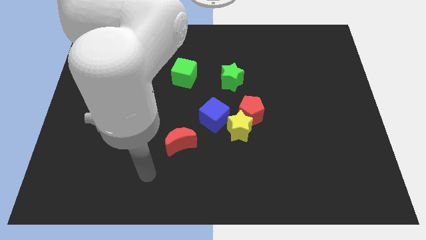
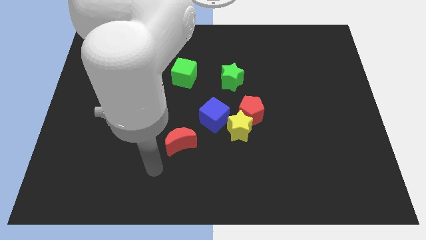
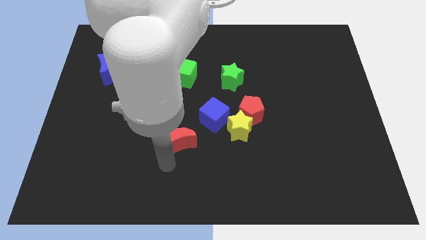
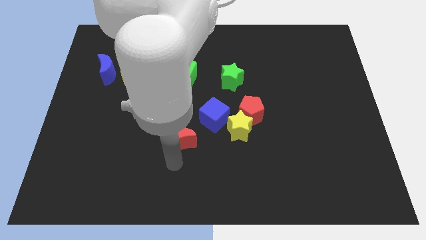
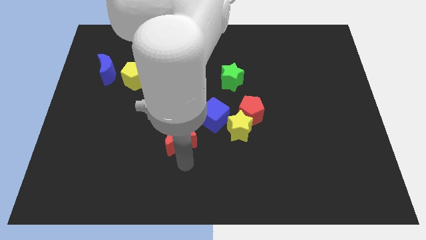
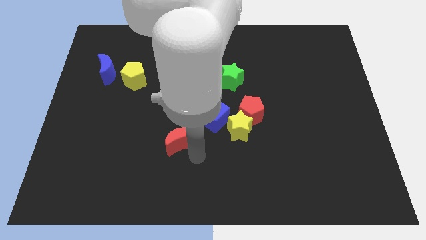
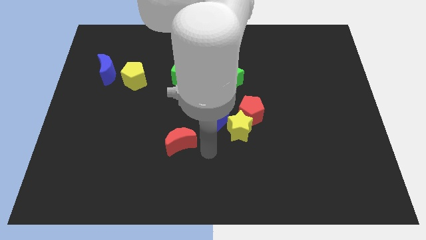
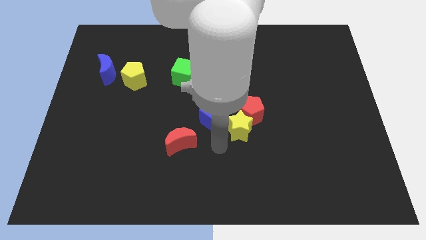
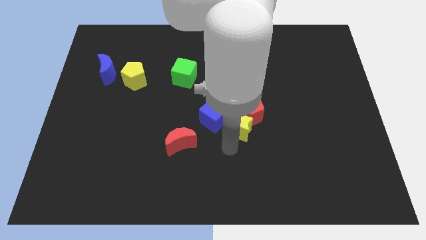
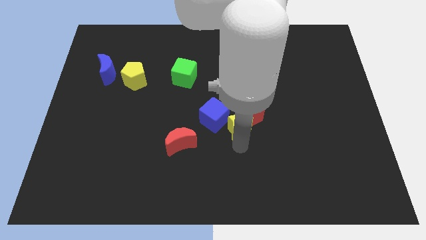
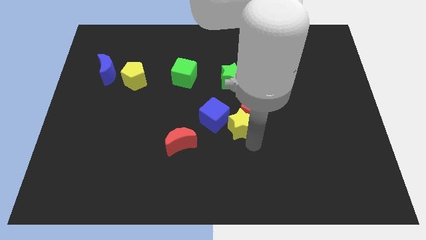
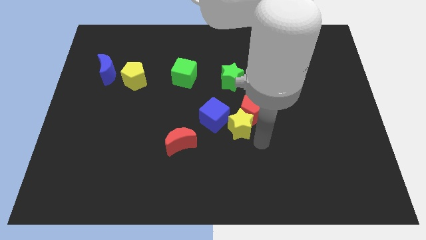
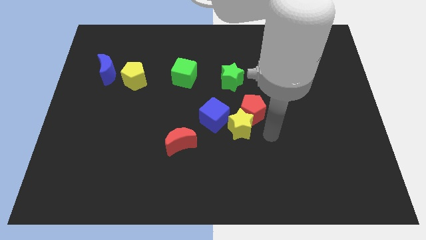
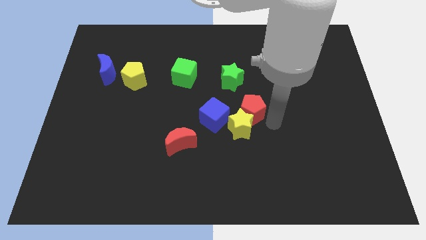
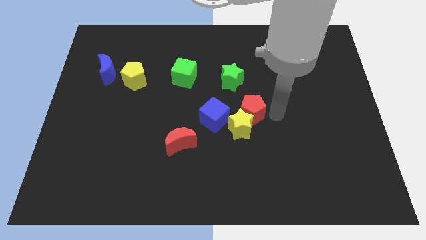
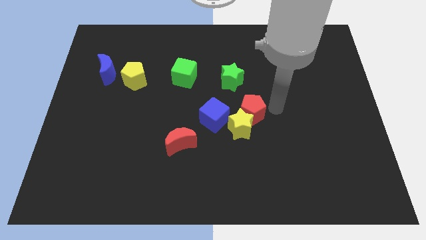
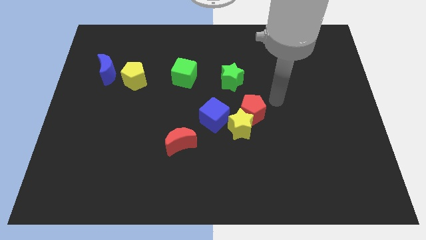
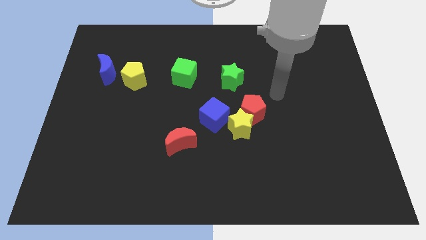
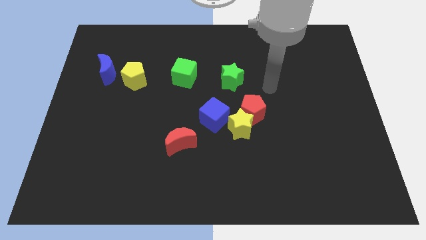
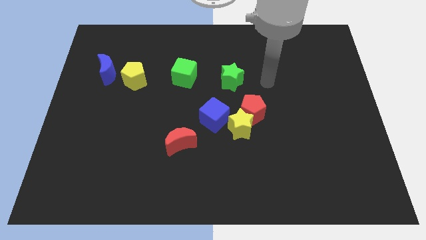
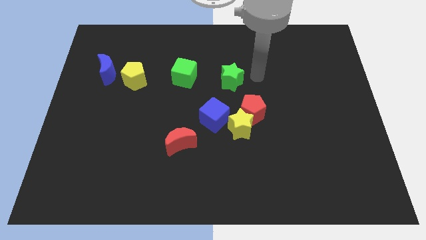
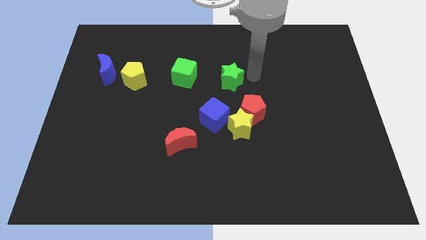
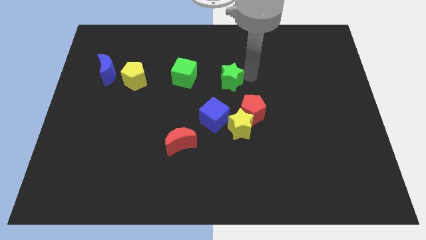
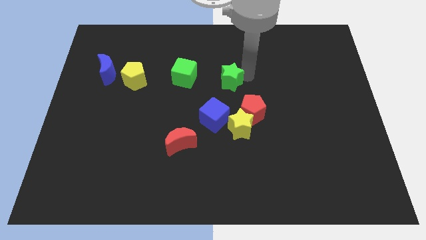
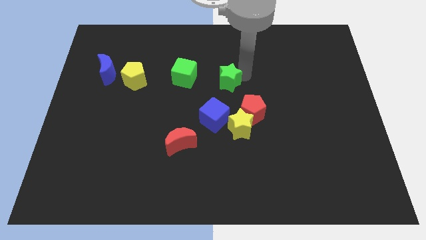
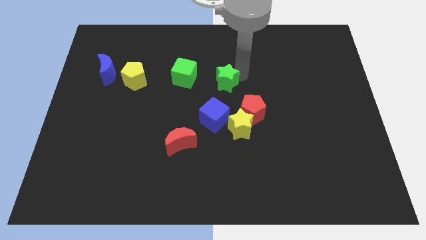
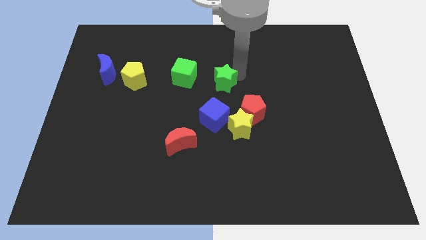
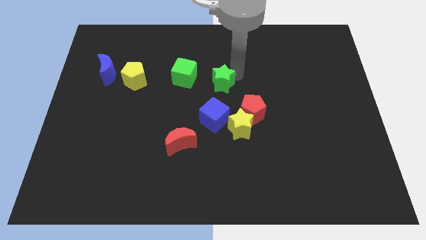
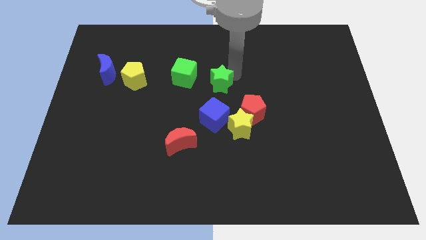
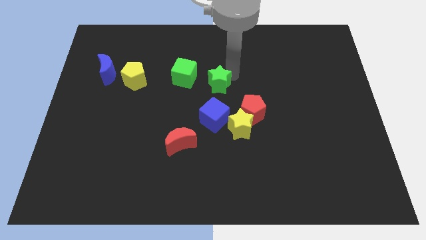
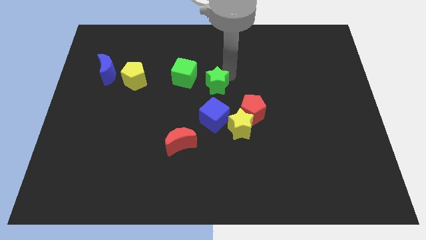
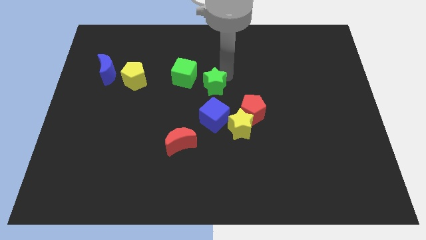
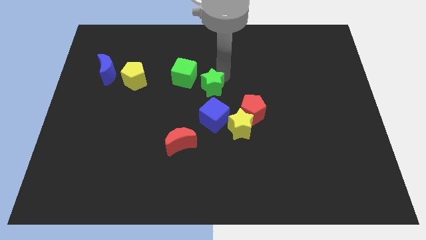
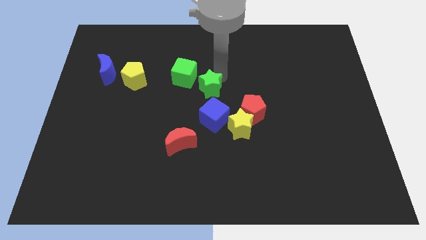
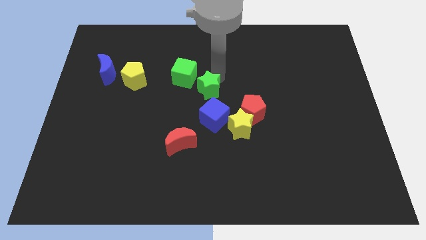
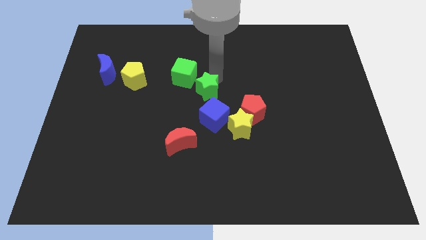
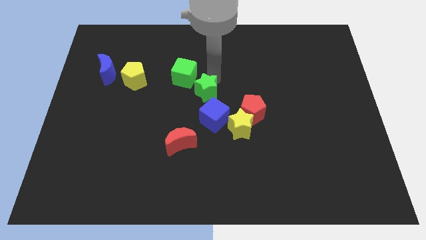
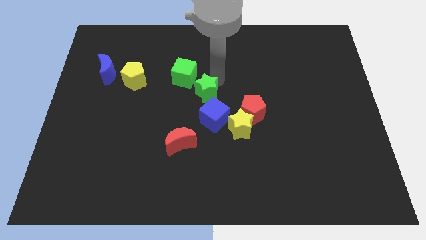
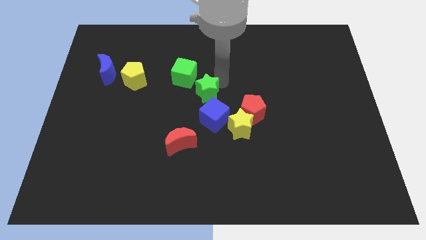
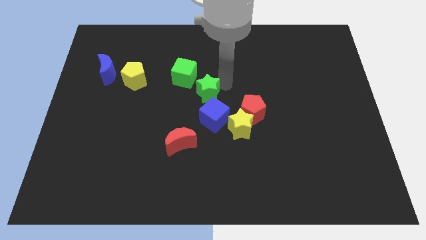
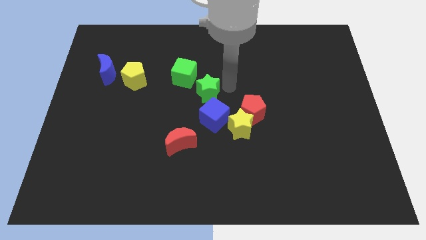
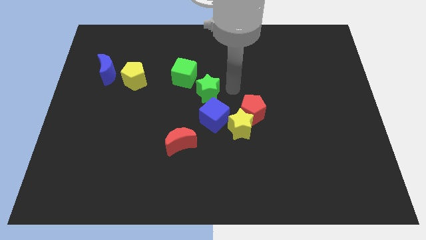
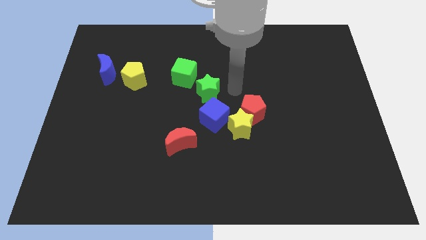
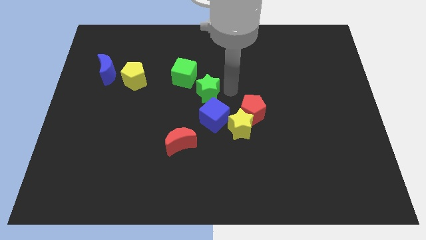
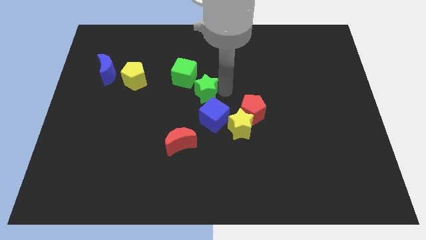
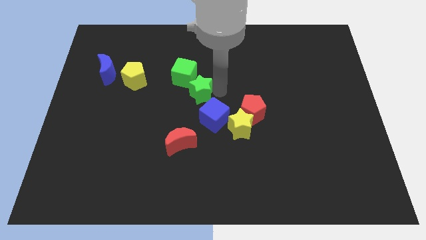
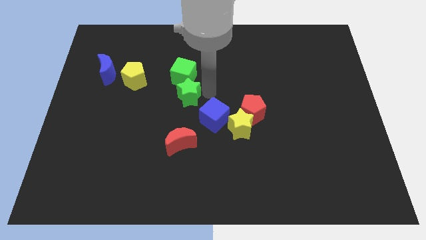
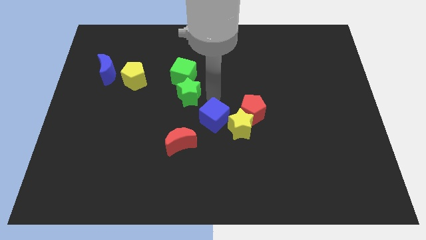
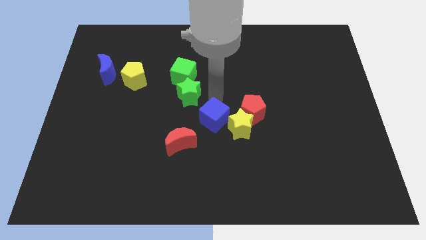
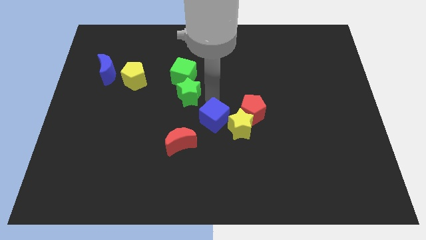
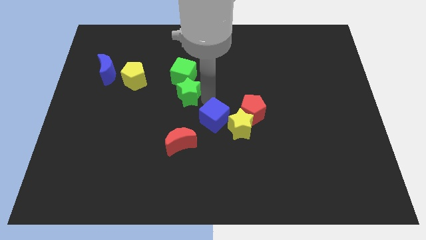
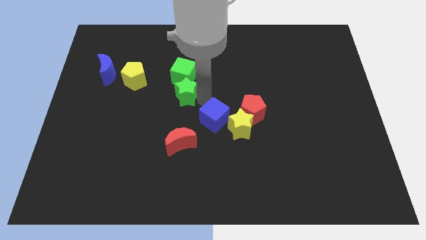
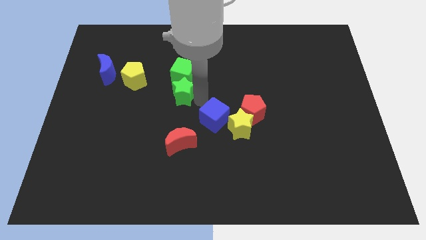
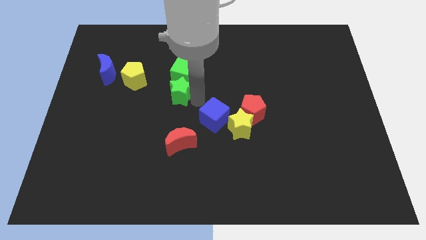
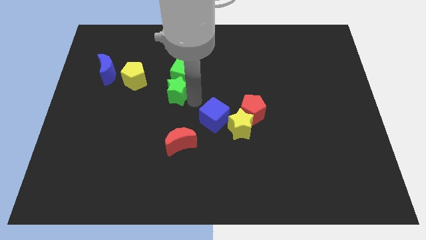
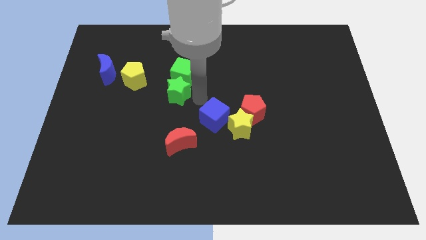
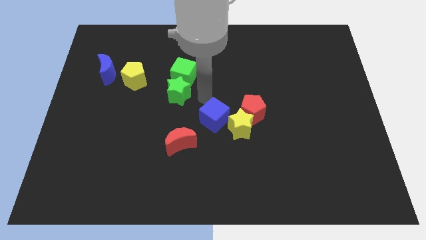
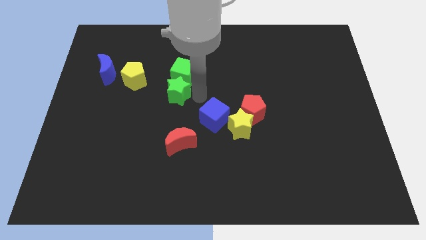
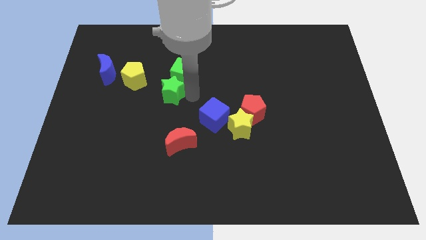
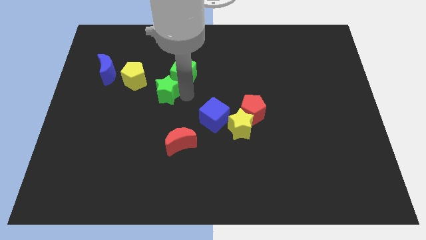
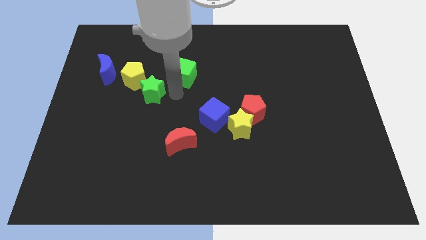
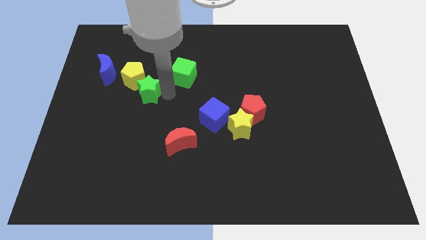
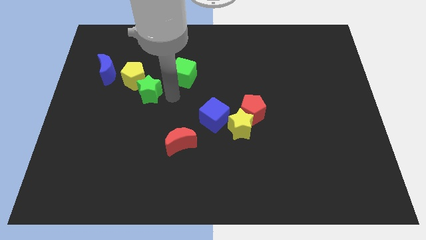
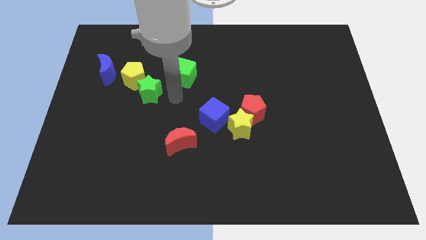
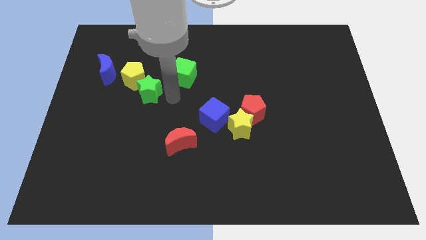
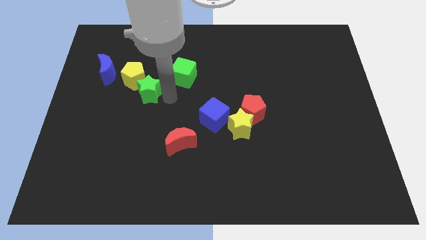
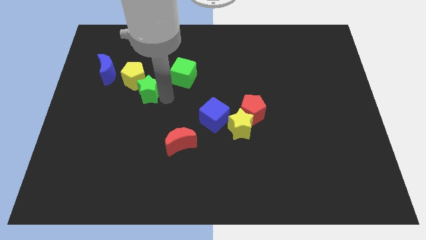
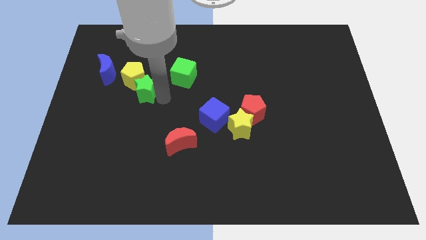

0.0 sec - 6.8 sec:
slide the green star to the bottom right side of the blue moon

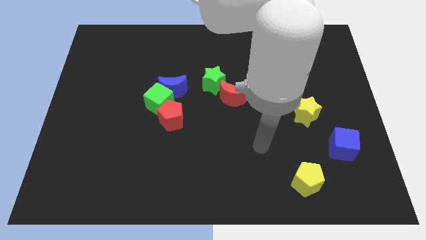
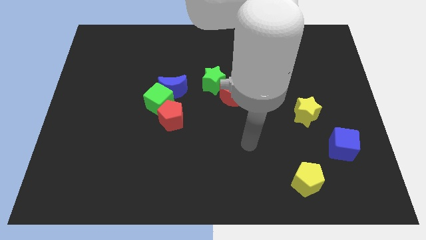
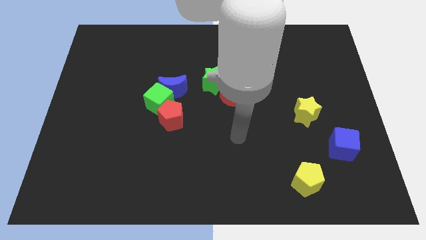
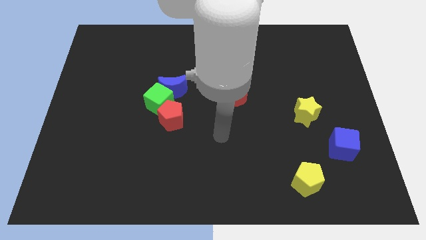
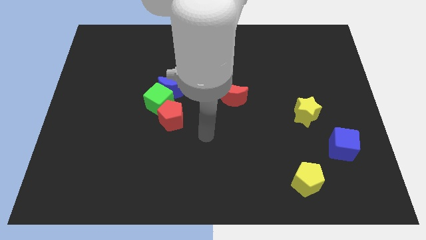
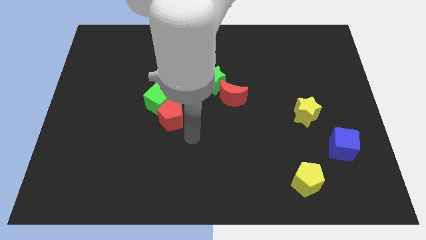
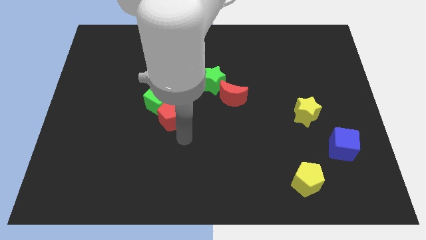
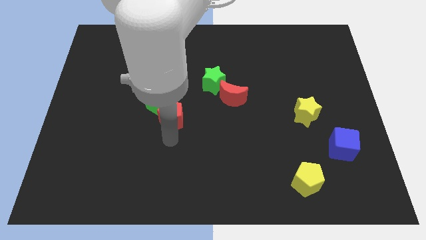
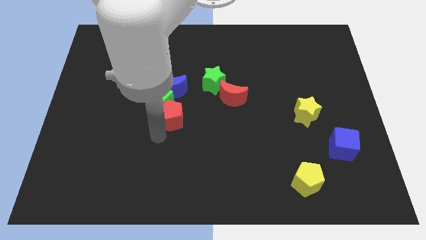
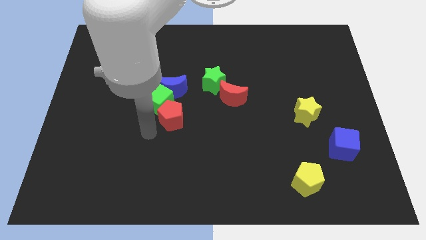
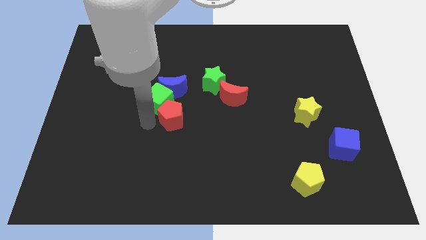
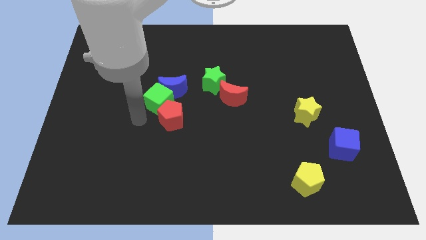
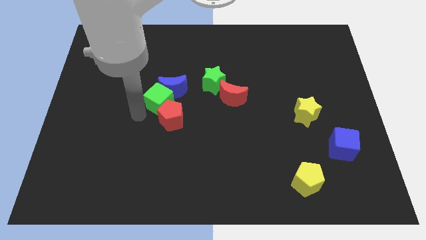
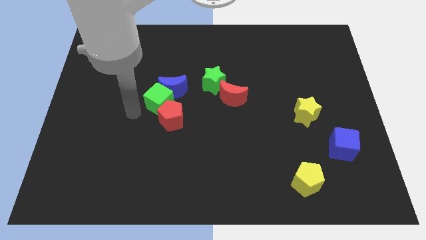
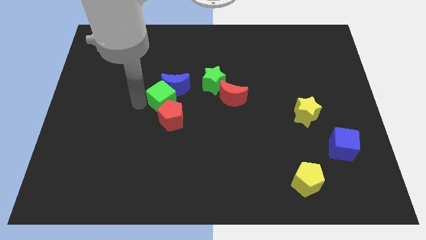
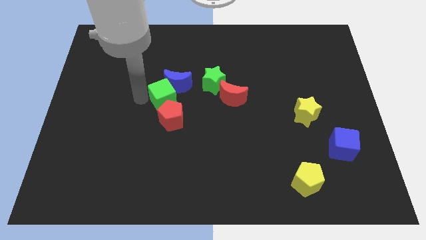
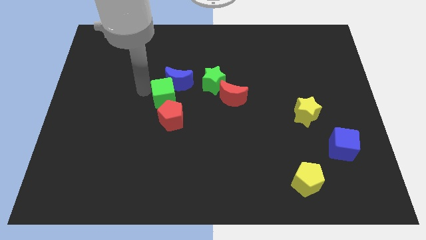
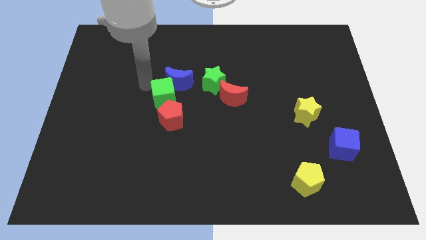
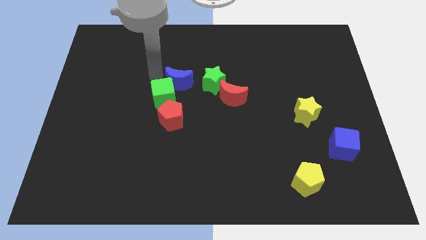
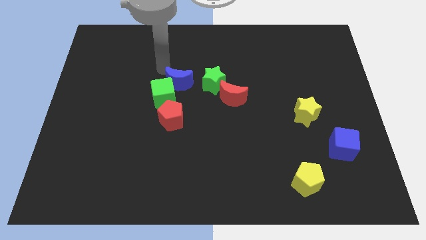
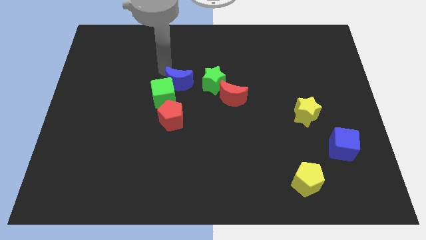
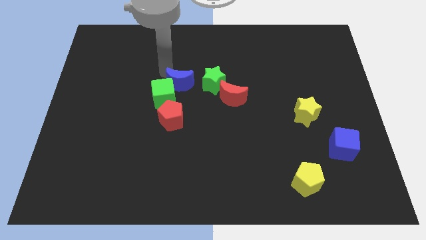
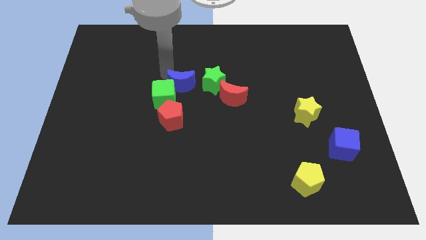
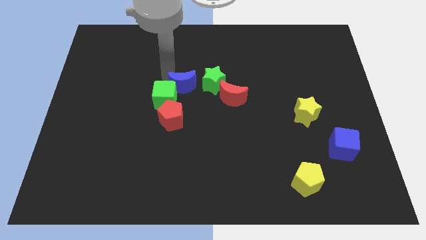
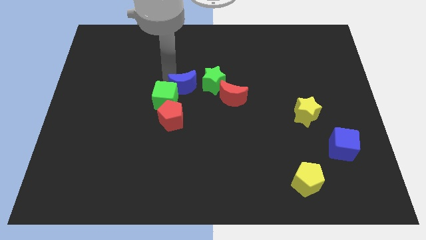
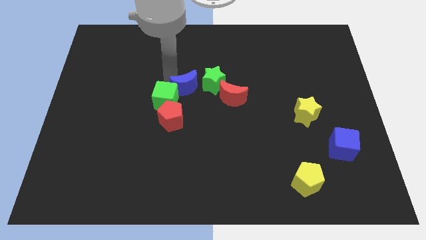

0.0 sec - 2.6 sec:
move the blue moon to the top right of the red pentagon
